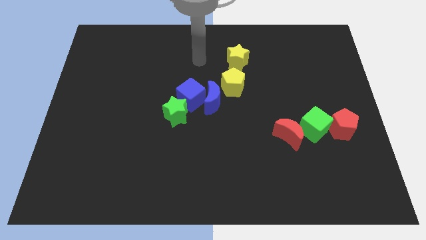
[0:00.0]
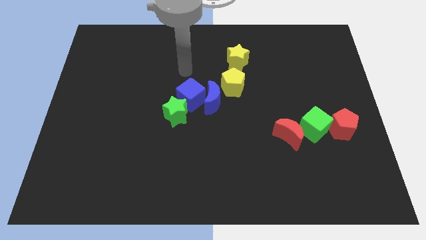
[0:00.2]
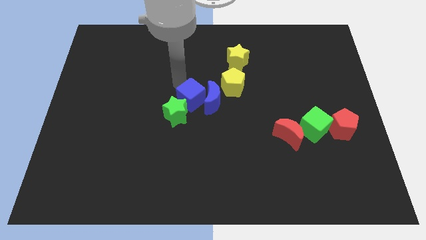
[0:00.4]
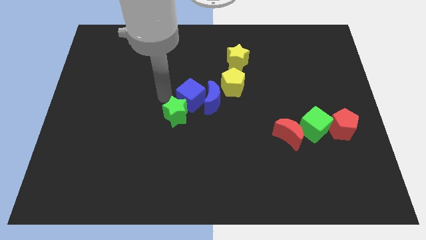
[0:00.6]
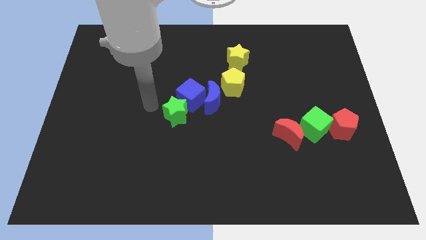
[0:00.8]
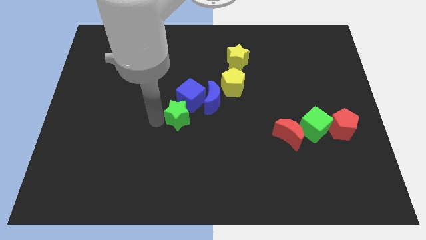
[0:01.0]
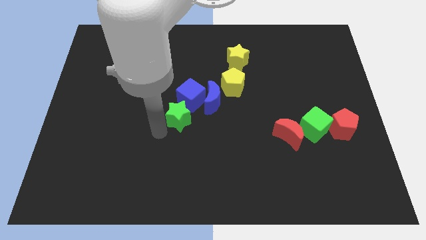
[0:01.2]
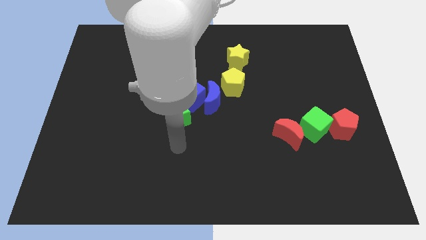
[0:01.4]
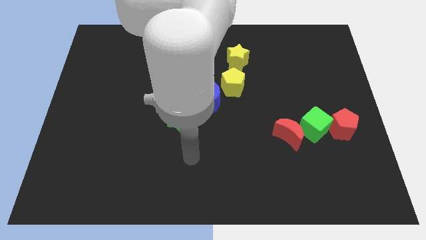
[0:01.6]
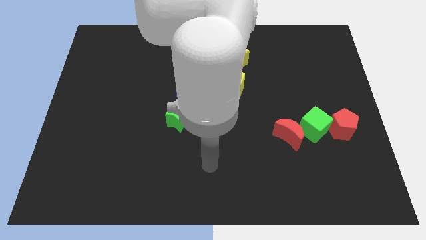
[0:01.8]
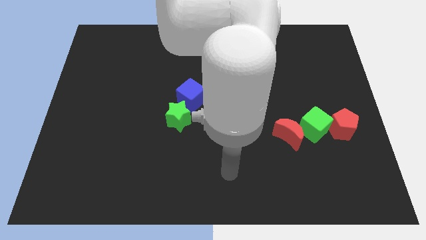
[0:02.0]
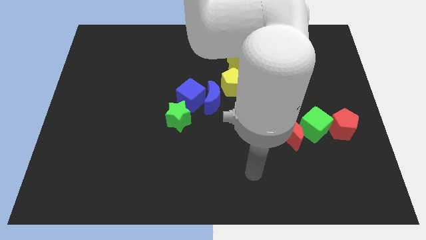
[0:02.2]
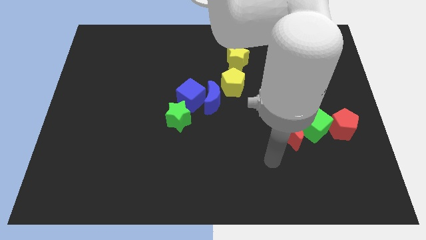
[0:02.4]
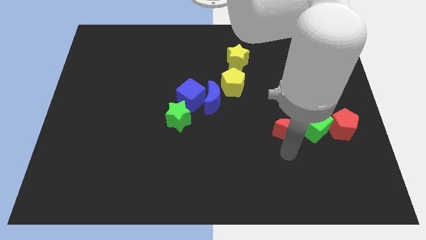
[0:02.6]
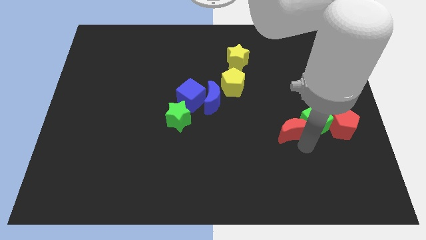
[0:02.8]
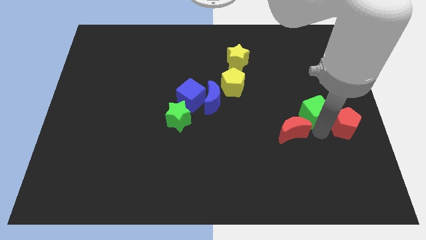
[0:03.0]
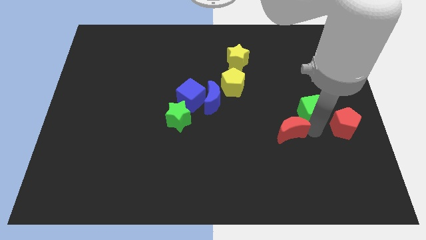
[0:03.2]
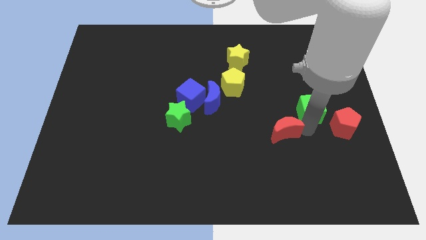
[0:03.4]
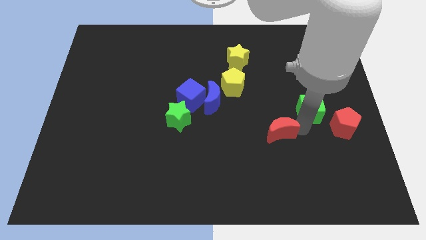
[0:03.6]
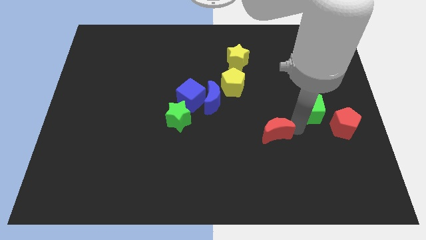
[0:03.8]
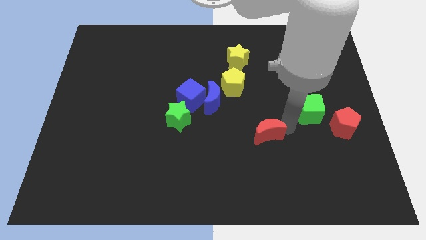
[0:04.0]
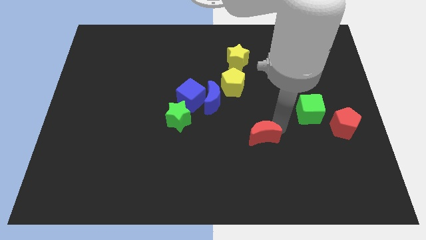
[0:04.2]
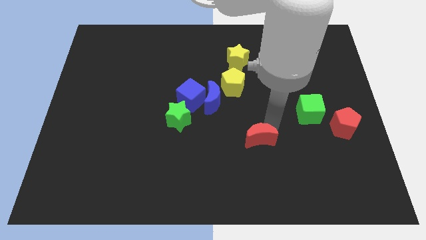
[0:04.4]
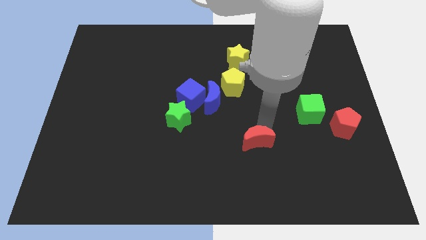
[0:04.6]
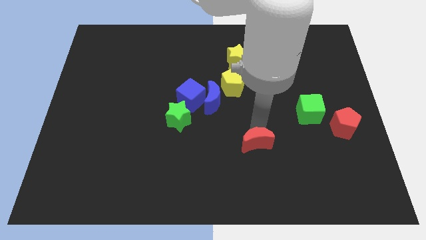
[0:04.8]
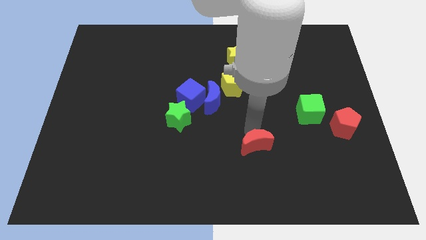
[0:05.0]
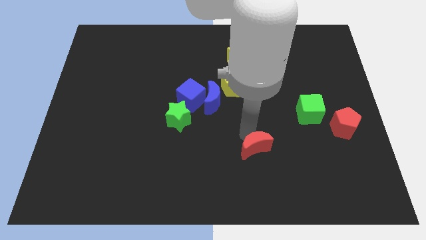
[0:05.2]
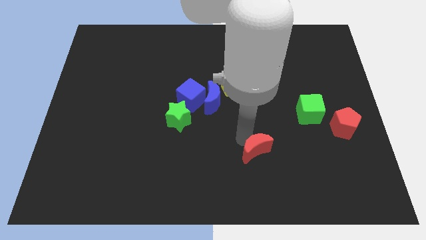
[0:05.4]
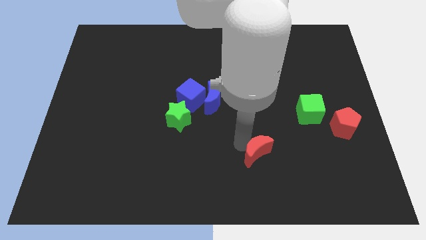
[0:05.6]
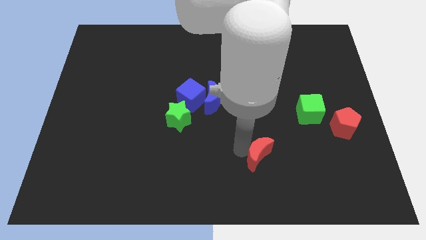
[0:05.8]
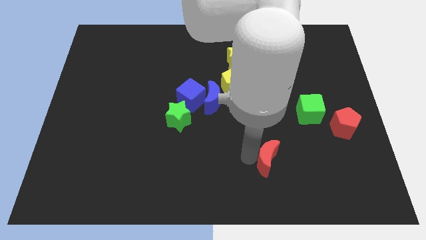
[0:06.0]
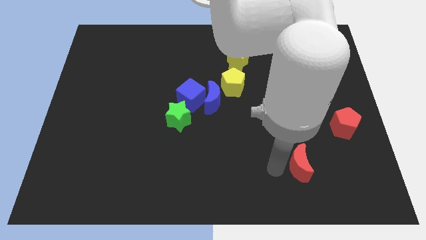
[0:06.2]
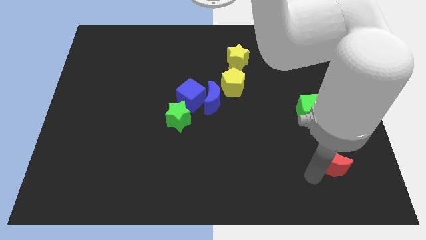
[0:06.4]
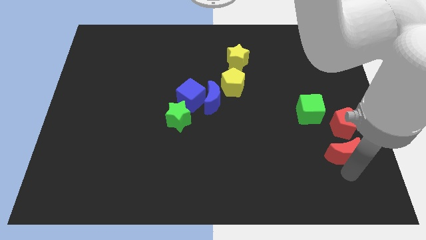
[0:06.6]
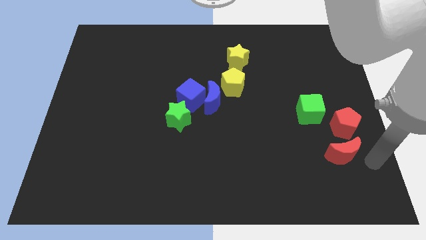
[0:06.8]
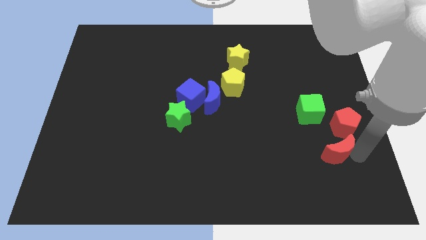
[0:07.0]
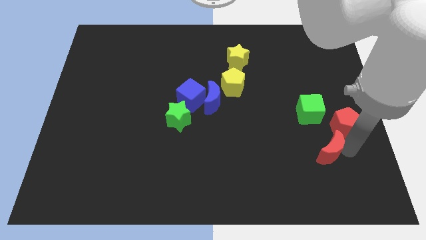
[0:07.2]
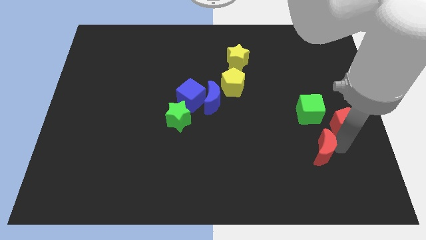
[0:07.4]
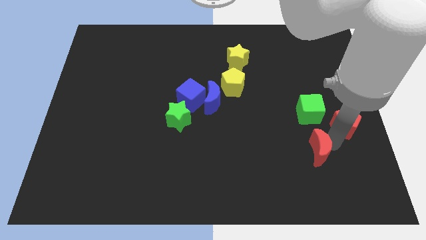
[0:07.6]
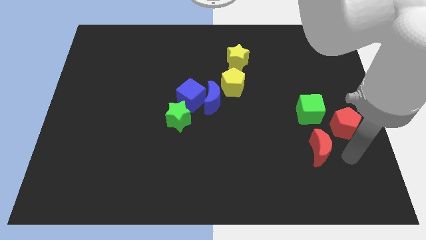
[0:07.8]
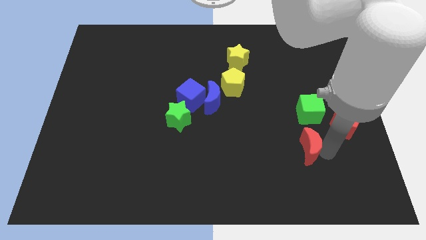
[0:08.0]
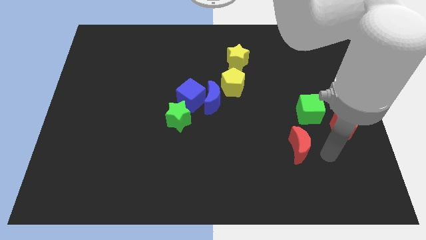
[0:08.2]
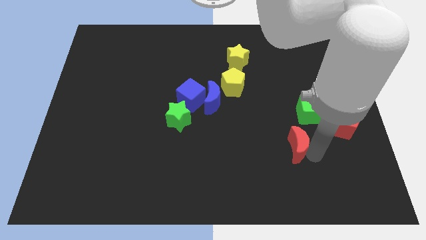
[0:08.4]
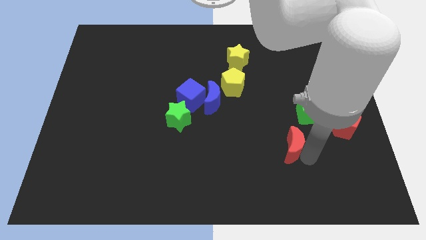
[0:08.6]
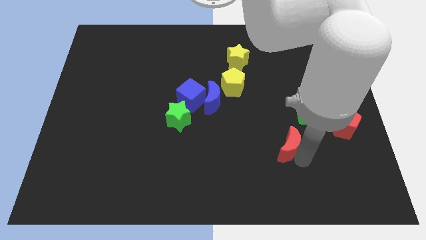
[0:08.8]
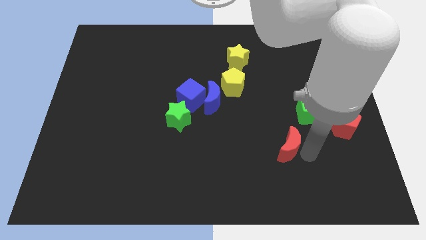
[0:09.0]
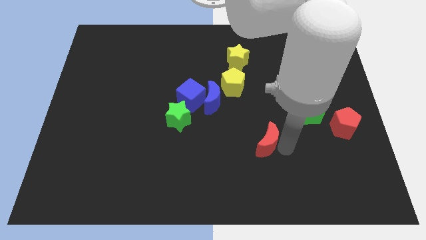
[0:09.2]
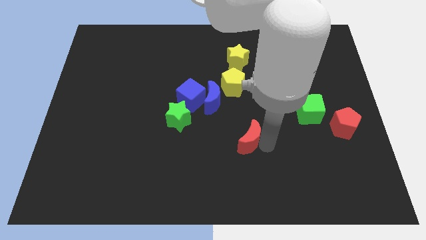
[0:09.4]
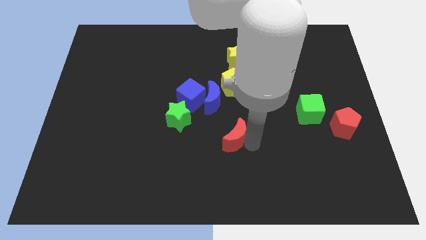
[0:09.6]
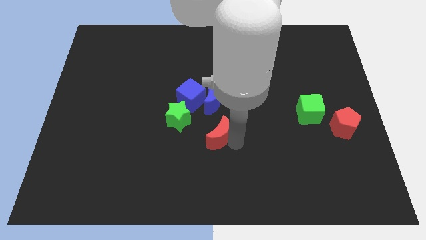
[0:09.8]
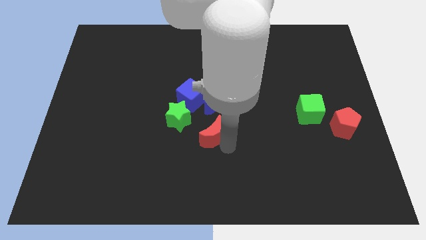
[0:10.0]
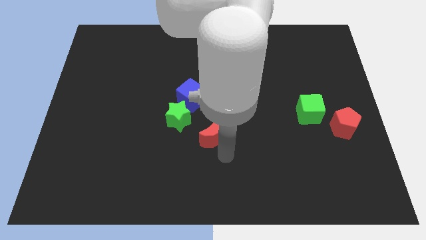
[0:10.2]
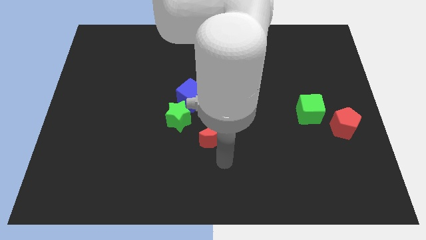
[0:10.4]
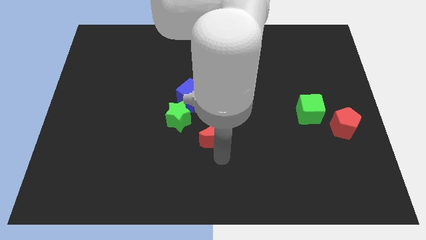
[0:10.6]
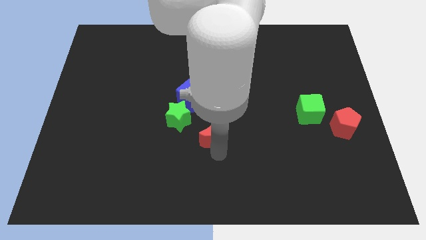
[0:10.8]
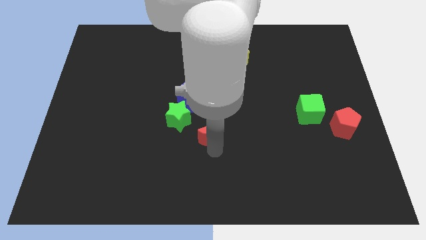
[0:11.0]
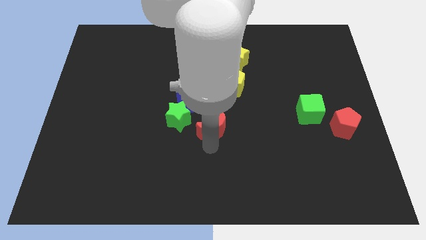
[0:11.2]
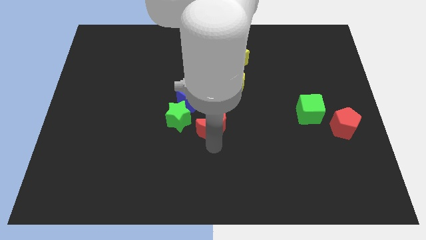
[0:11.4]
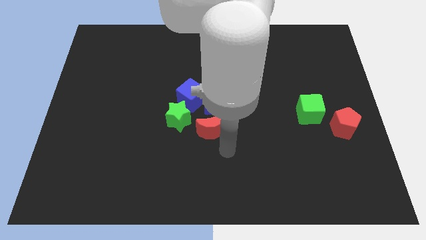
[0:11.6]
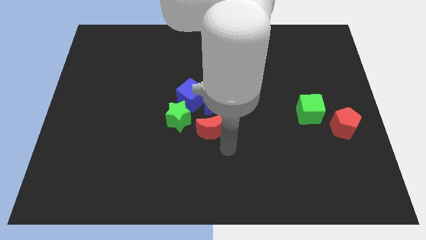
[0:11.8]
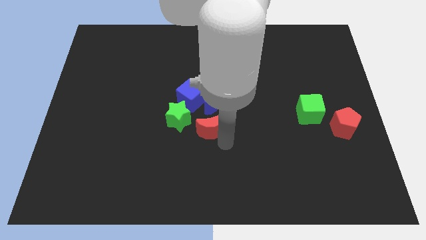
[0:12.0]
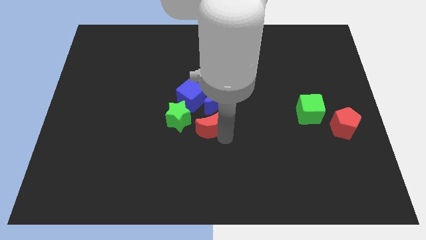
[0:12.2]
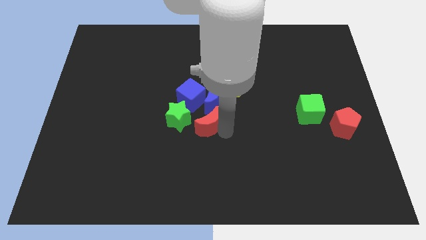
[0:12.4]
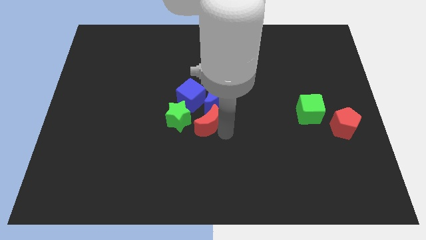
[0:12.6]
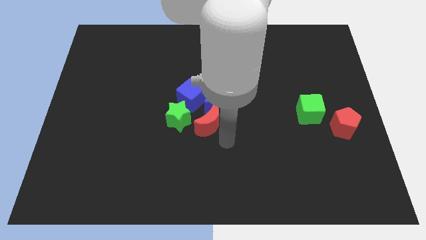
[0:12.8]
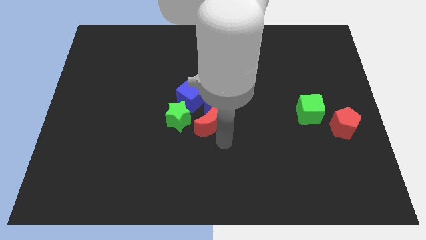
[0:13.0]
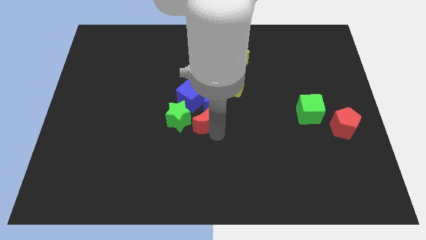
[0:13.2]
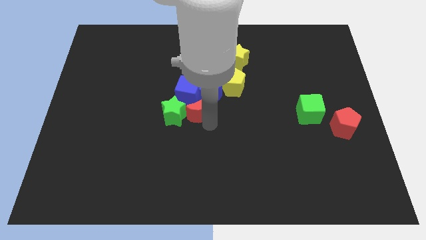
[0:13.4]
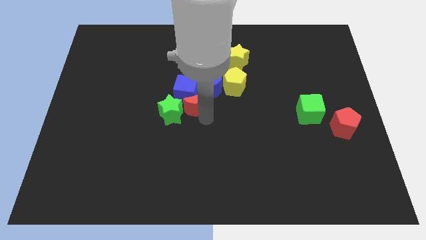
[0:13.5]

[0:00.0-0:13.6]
slide the red moon to the blue cube
